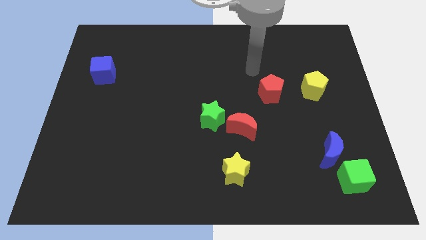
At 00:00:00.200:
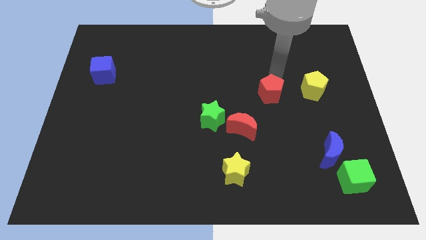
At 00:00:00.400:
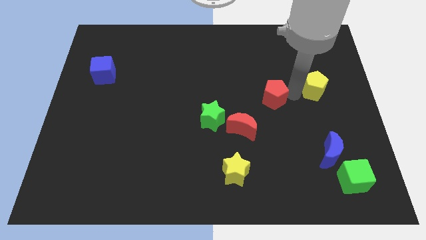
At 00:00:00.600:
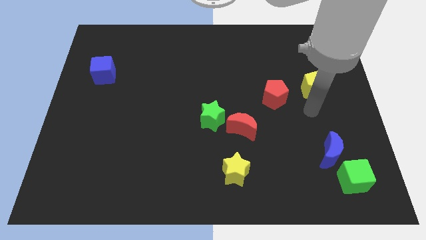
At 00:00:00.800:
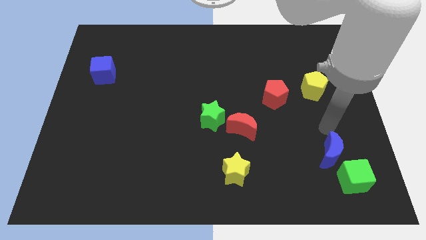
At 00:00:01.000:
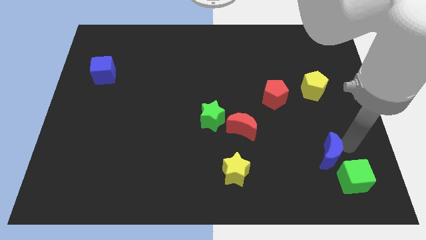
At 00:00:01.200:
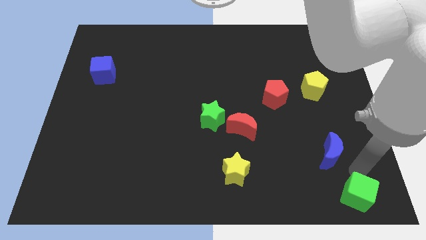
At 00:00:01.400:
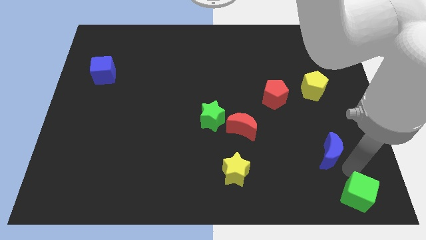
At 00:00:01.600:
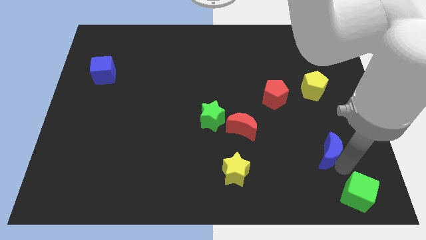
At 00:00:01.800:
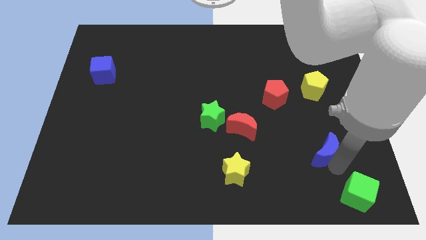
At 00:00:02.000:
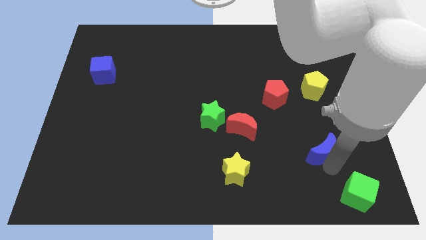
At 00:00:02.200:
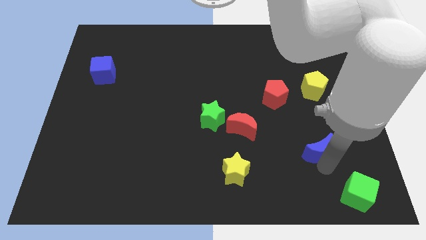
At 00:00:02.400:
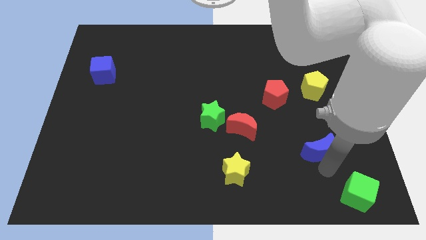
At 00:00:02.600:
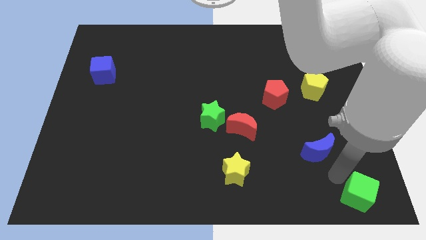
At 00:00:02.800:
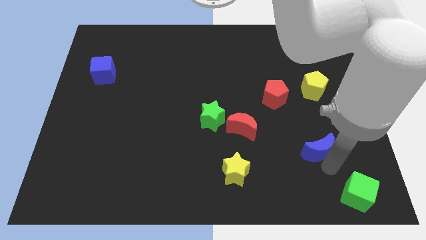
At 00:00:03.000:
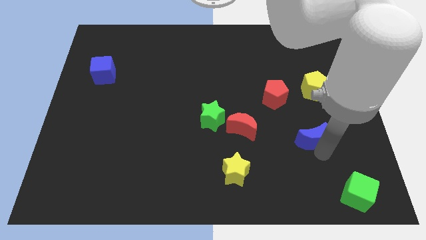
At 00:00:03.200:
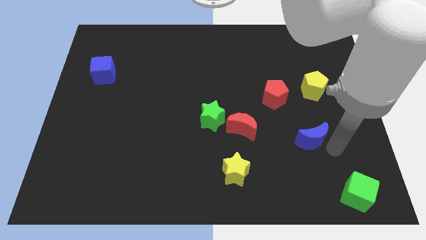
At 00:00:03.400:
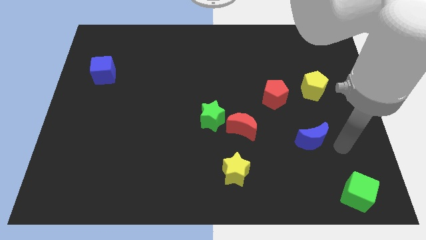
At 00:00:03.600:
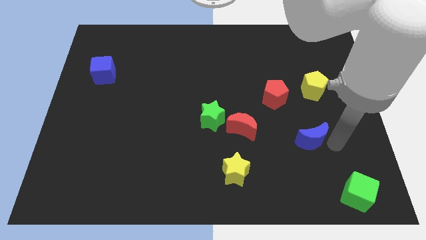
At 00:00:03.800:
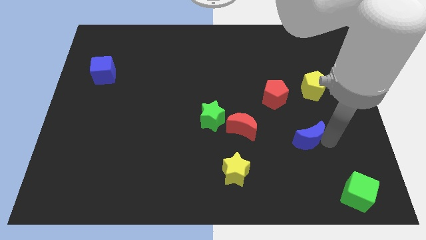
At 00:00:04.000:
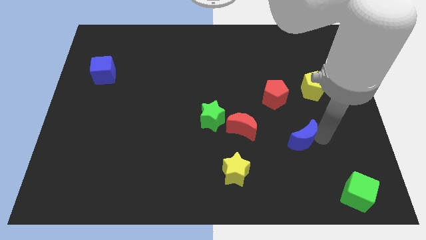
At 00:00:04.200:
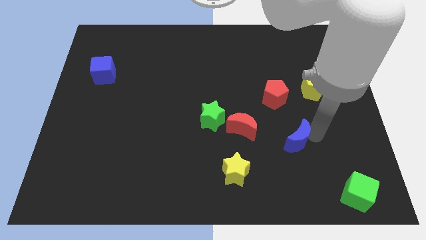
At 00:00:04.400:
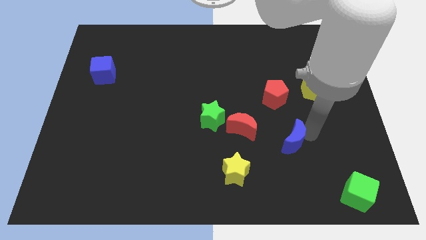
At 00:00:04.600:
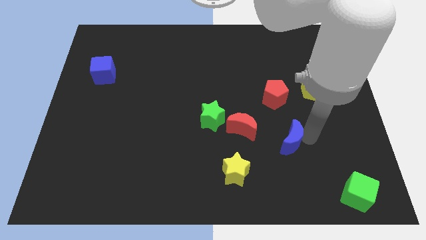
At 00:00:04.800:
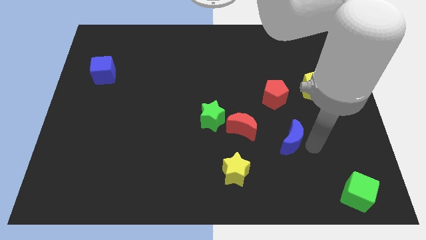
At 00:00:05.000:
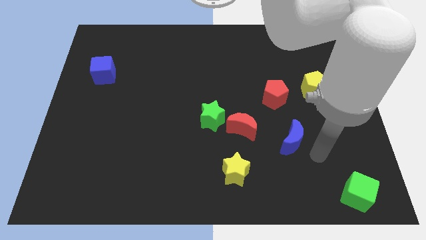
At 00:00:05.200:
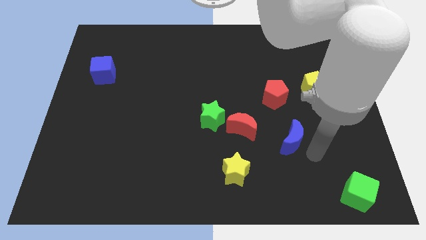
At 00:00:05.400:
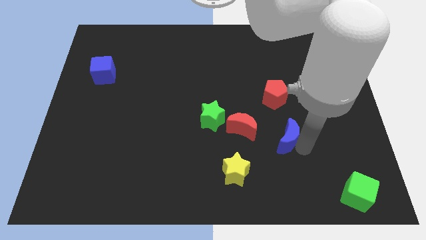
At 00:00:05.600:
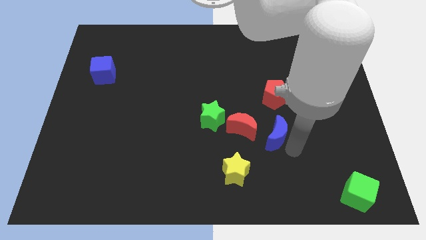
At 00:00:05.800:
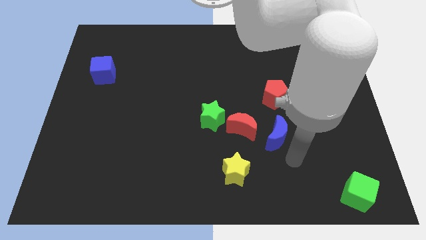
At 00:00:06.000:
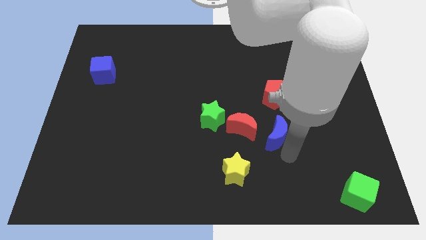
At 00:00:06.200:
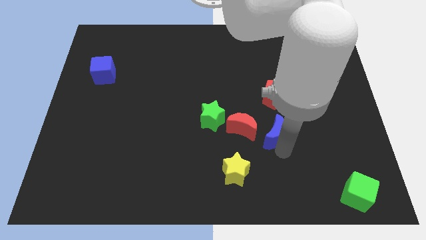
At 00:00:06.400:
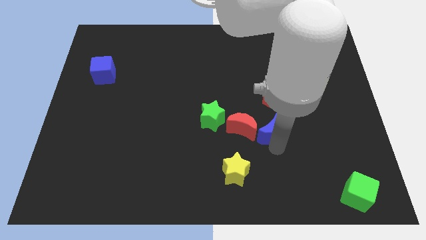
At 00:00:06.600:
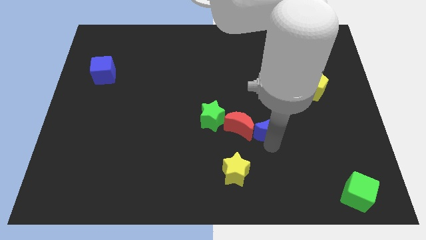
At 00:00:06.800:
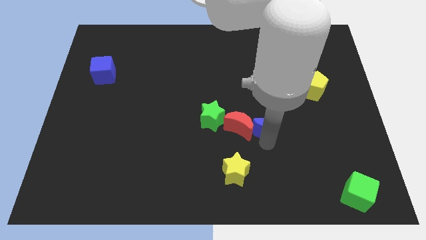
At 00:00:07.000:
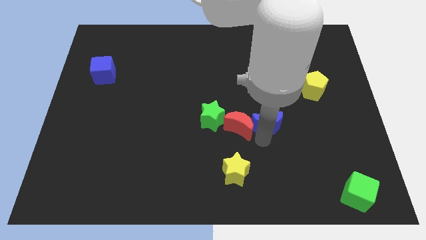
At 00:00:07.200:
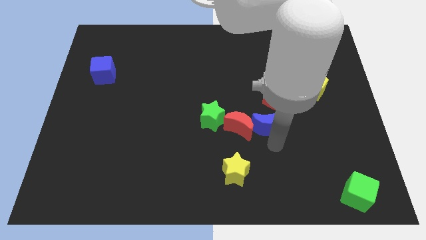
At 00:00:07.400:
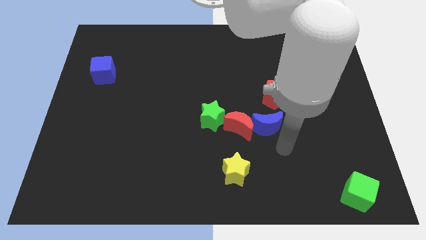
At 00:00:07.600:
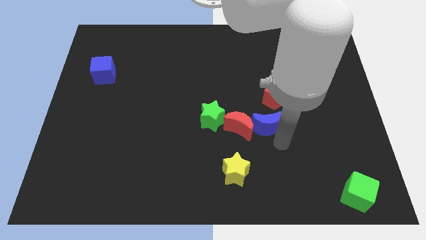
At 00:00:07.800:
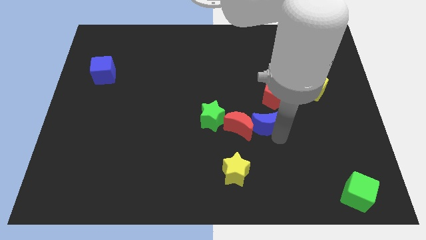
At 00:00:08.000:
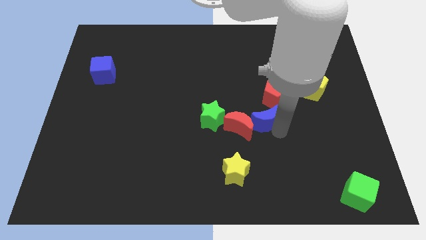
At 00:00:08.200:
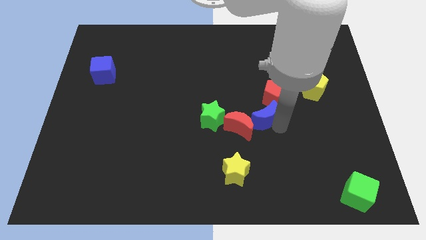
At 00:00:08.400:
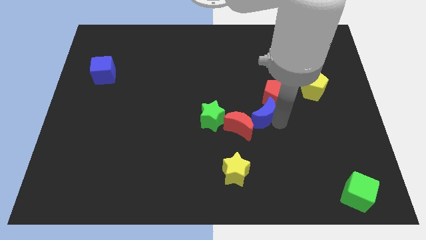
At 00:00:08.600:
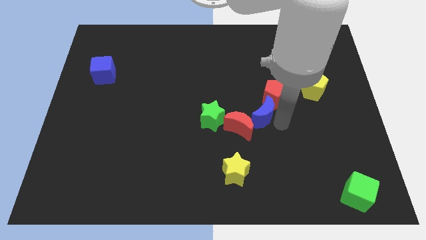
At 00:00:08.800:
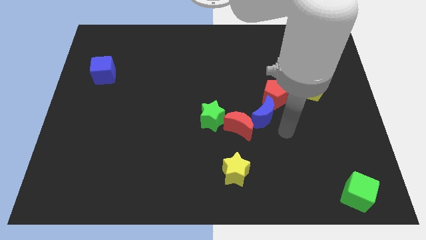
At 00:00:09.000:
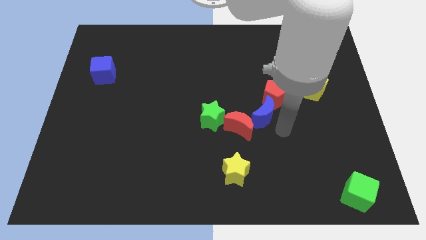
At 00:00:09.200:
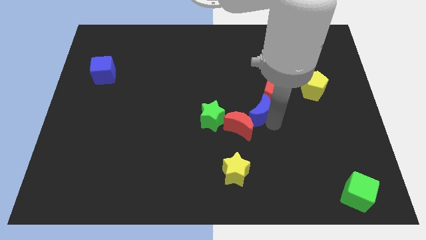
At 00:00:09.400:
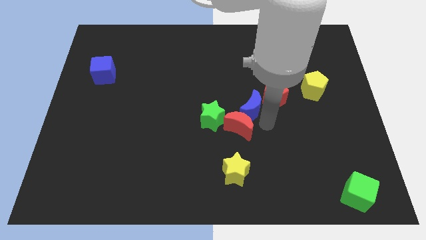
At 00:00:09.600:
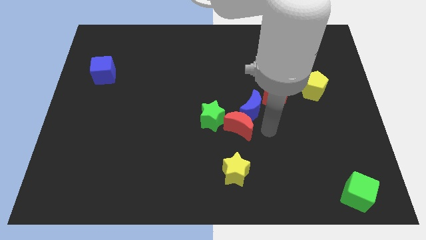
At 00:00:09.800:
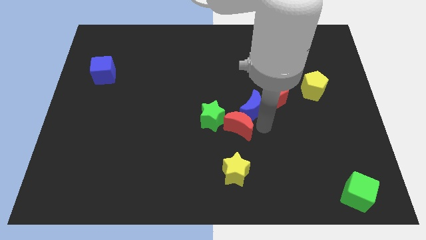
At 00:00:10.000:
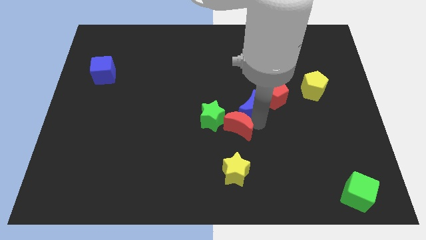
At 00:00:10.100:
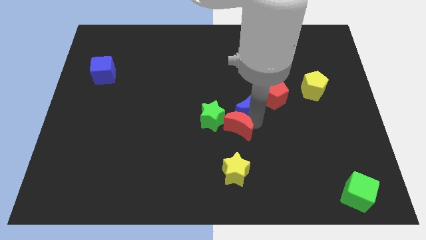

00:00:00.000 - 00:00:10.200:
move the blue moon diagonally upwards and to the left

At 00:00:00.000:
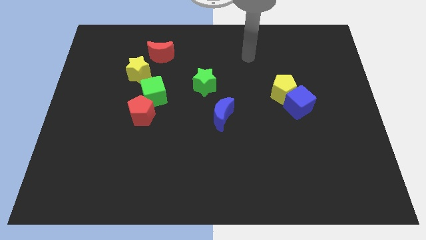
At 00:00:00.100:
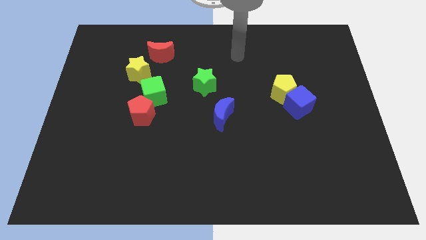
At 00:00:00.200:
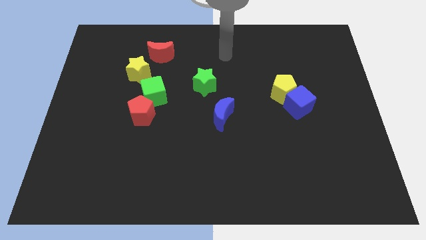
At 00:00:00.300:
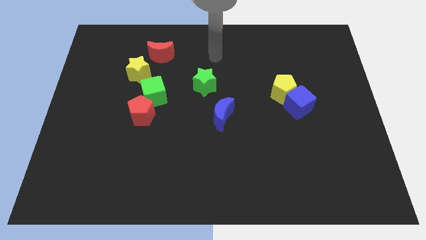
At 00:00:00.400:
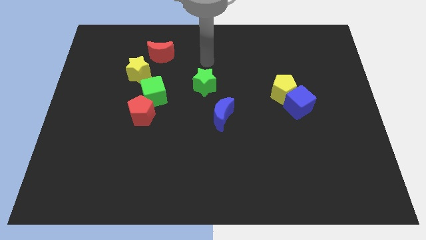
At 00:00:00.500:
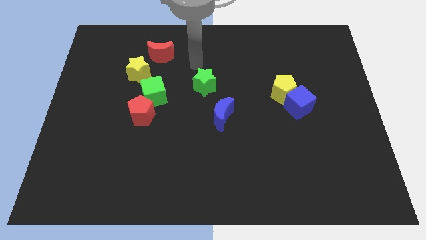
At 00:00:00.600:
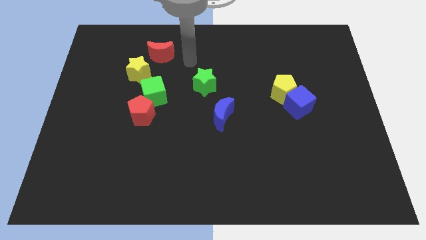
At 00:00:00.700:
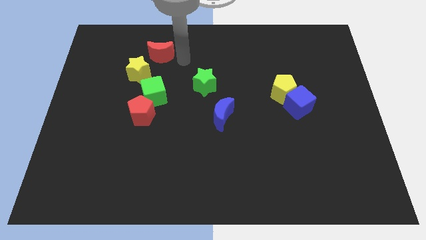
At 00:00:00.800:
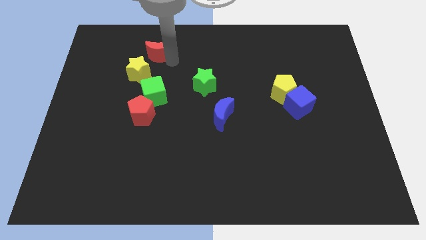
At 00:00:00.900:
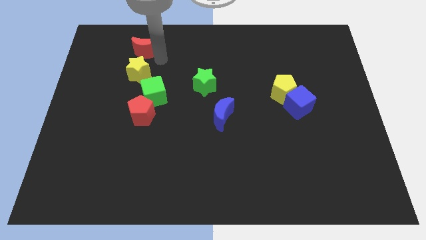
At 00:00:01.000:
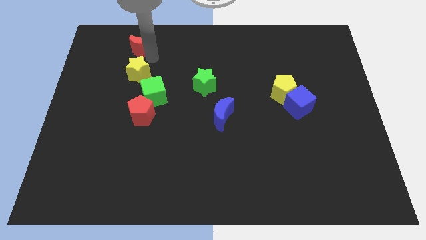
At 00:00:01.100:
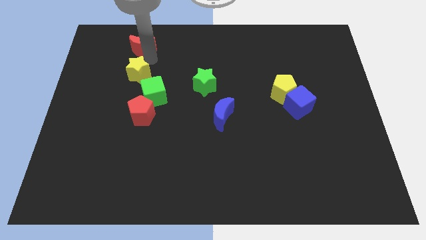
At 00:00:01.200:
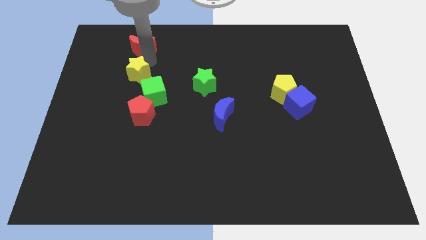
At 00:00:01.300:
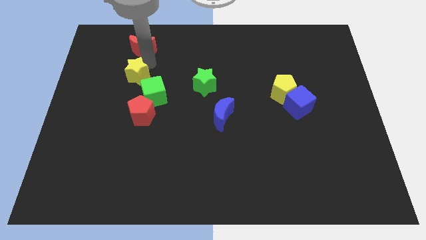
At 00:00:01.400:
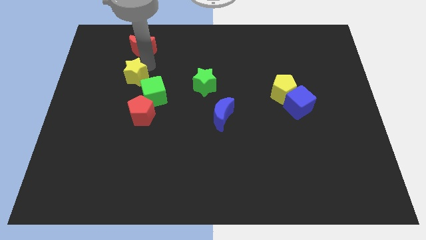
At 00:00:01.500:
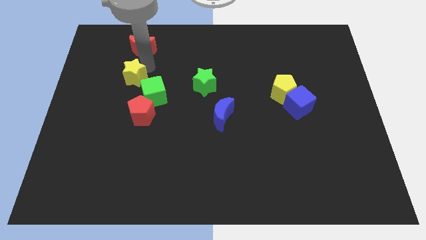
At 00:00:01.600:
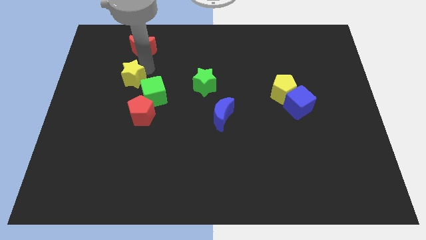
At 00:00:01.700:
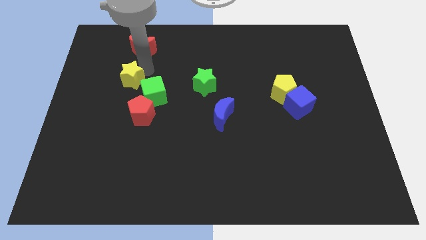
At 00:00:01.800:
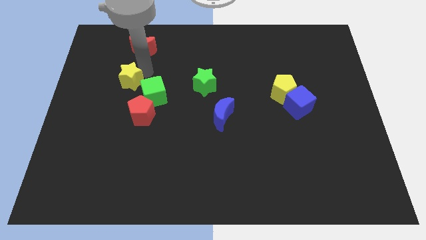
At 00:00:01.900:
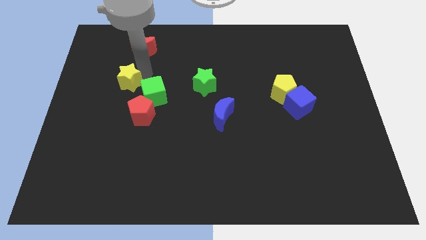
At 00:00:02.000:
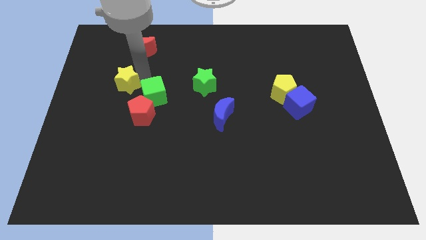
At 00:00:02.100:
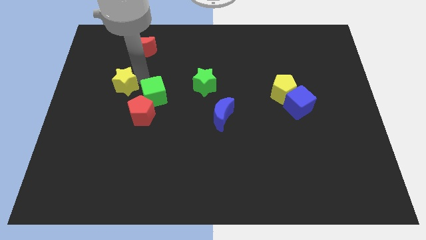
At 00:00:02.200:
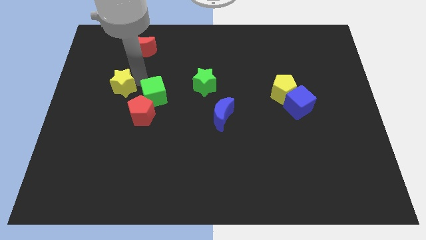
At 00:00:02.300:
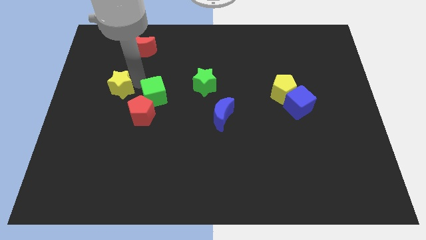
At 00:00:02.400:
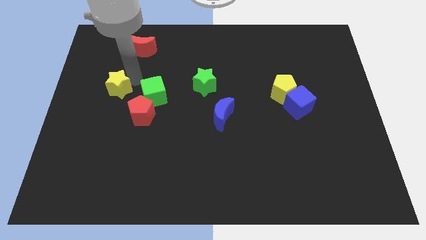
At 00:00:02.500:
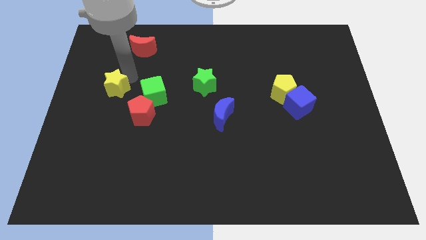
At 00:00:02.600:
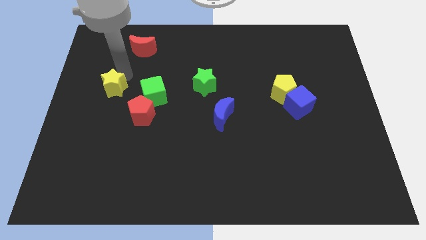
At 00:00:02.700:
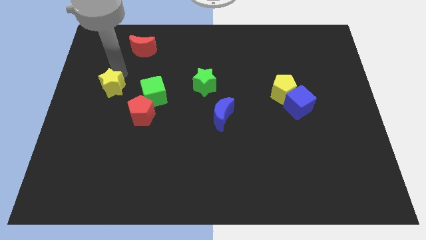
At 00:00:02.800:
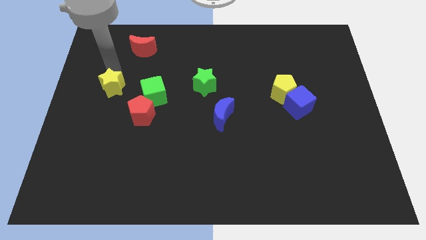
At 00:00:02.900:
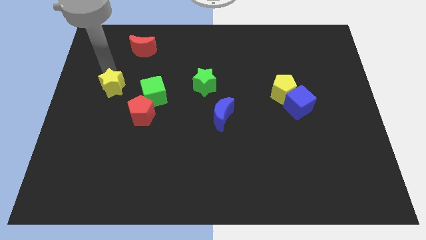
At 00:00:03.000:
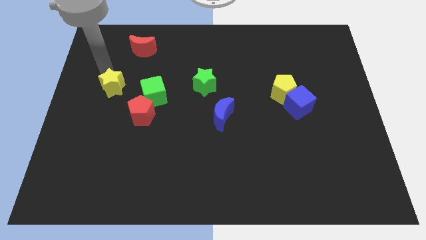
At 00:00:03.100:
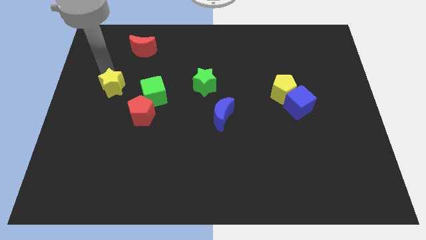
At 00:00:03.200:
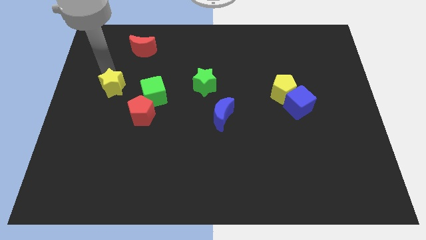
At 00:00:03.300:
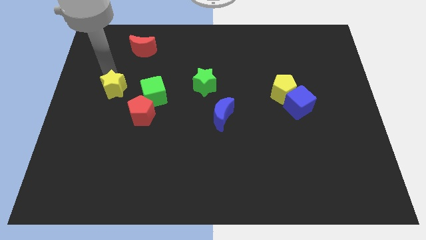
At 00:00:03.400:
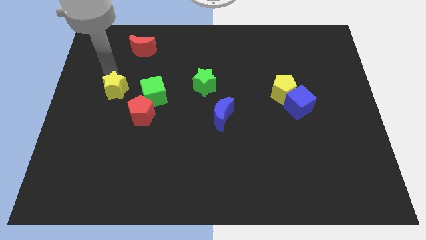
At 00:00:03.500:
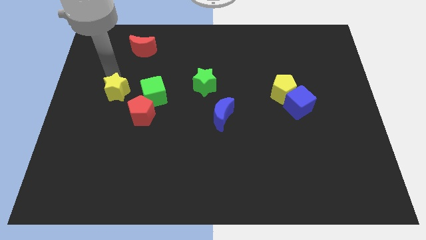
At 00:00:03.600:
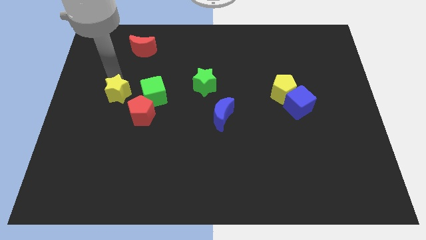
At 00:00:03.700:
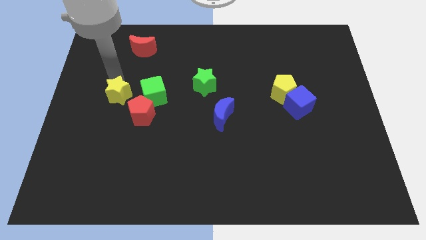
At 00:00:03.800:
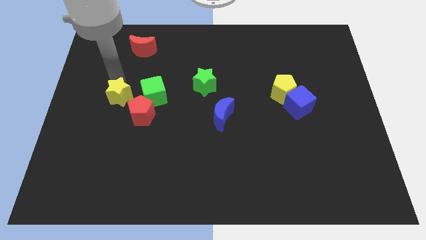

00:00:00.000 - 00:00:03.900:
move the yellow star somewhat downwards
